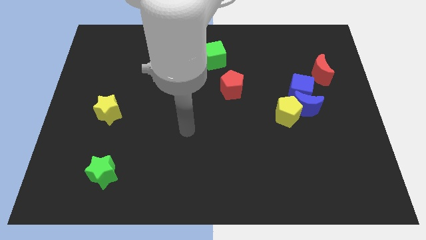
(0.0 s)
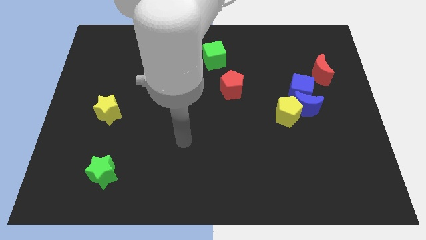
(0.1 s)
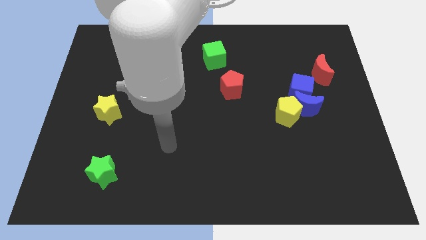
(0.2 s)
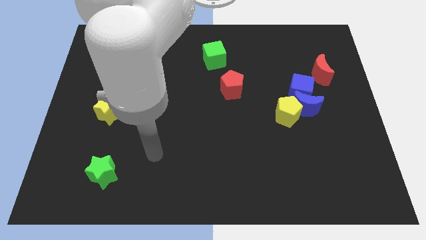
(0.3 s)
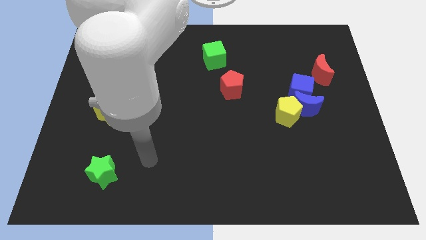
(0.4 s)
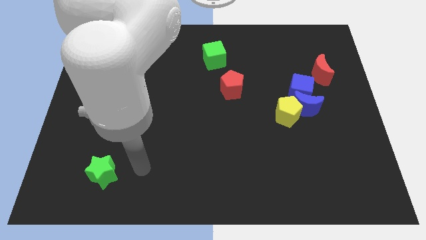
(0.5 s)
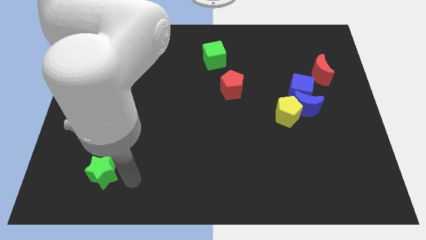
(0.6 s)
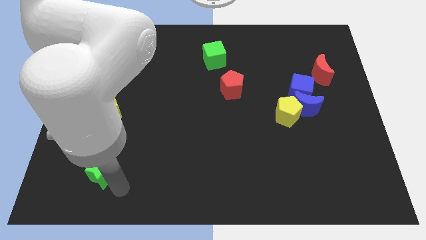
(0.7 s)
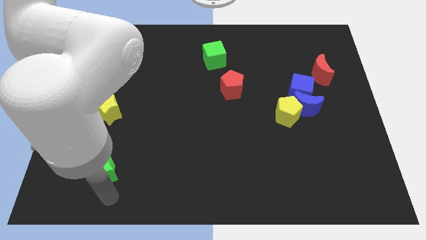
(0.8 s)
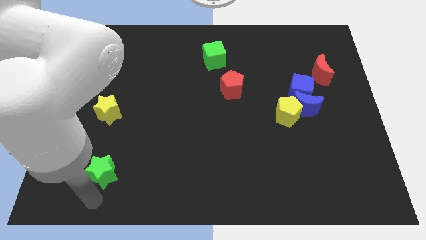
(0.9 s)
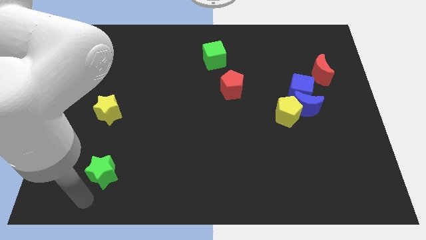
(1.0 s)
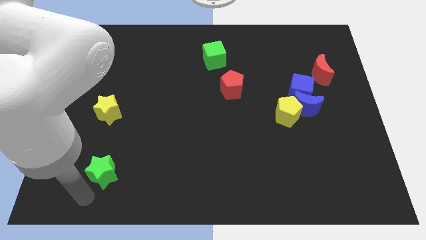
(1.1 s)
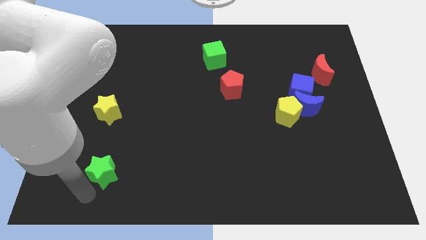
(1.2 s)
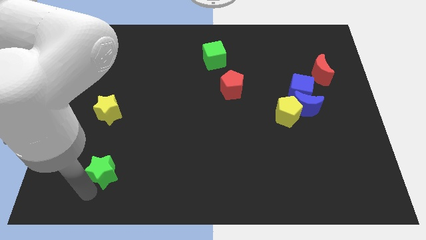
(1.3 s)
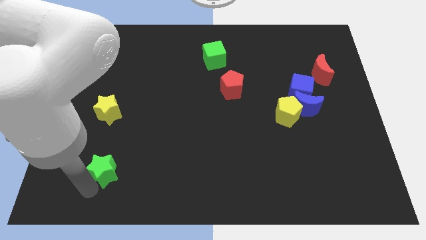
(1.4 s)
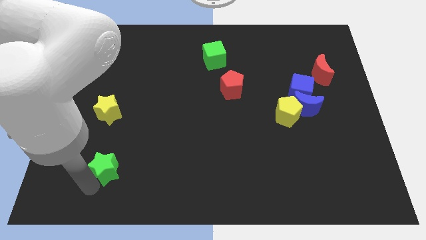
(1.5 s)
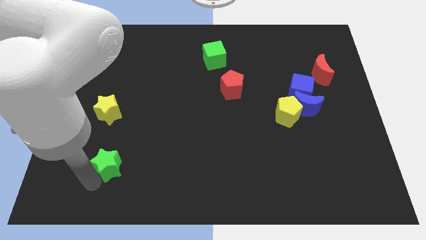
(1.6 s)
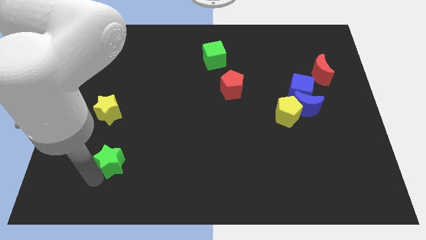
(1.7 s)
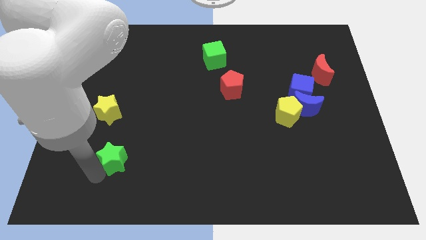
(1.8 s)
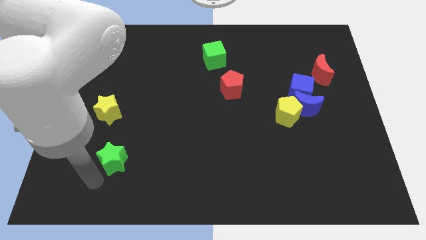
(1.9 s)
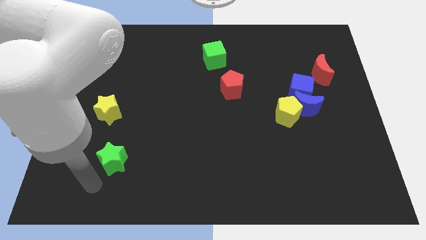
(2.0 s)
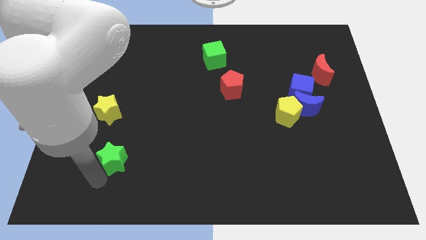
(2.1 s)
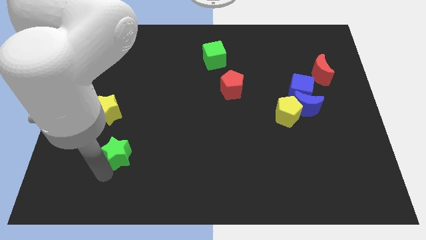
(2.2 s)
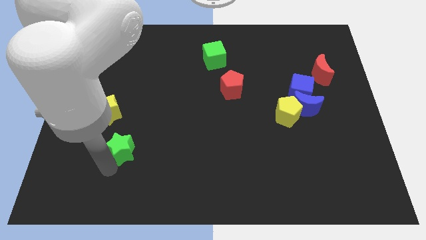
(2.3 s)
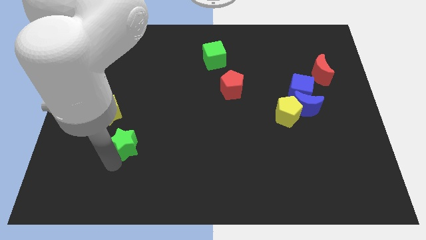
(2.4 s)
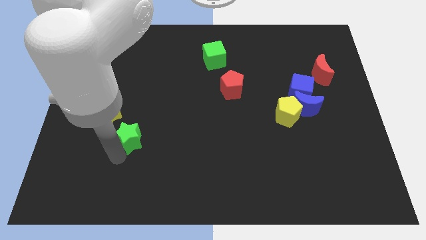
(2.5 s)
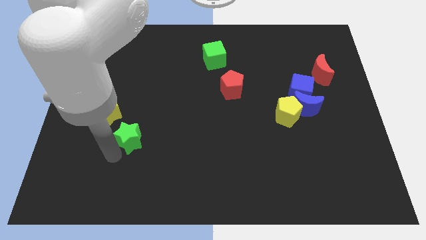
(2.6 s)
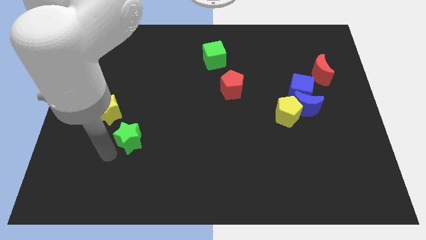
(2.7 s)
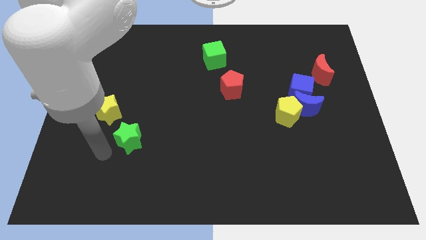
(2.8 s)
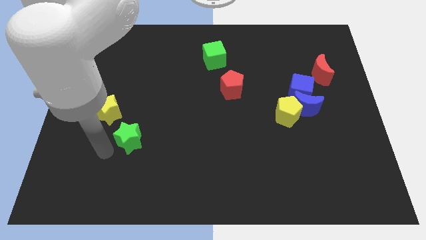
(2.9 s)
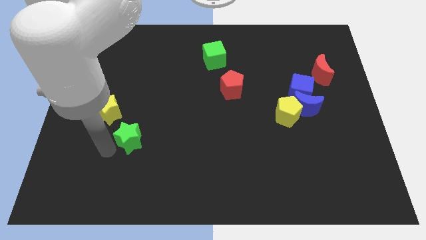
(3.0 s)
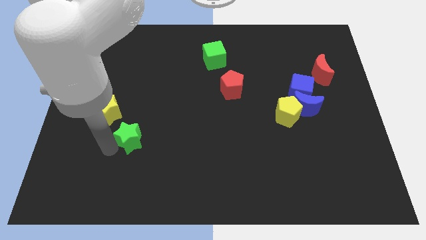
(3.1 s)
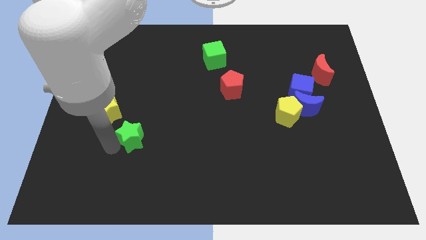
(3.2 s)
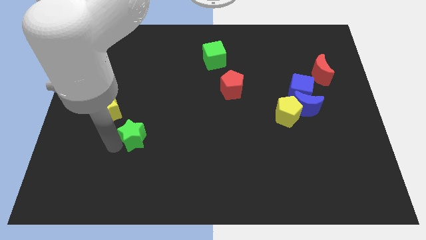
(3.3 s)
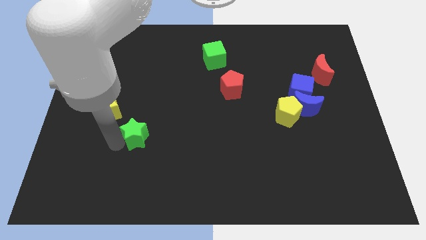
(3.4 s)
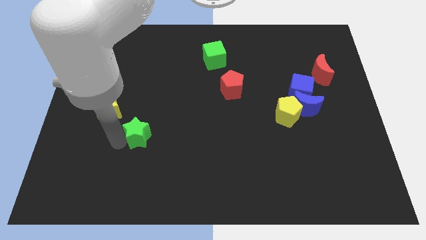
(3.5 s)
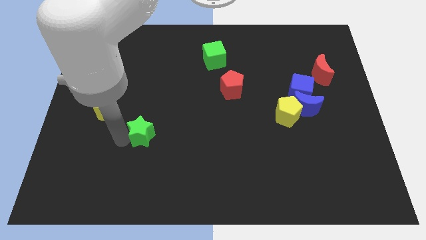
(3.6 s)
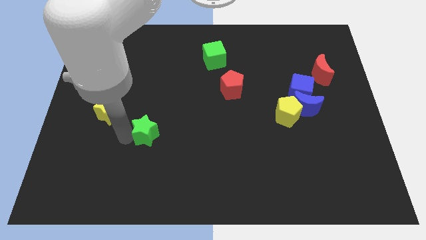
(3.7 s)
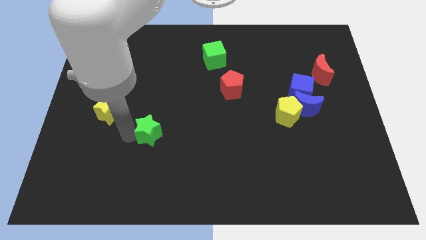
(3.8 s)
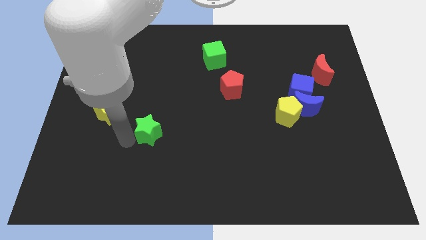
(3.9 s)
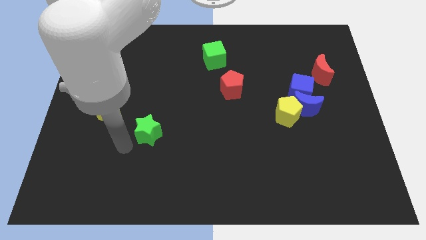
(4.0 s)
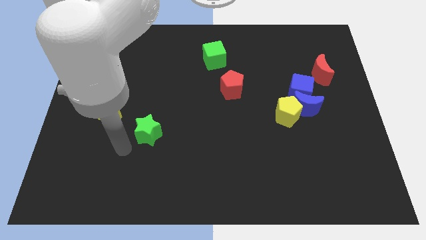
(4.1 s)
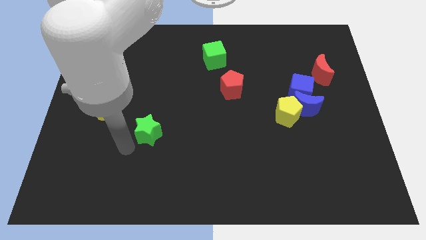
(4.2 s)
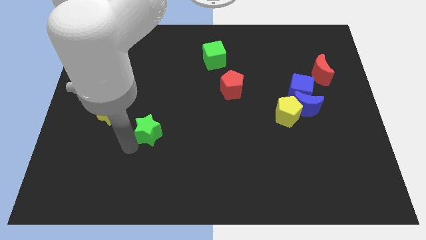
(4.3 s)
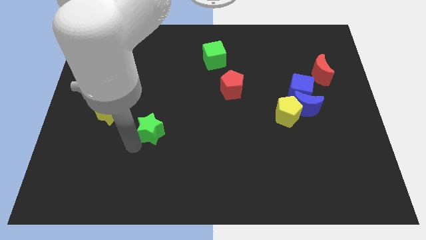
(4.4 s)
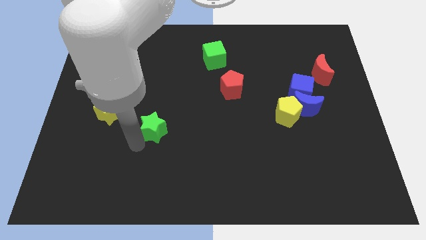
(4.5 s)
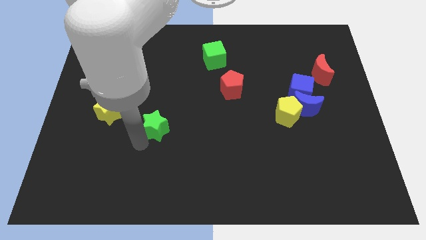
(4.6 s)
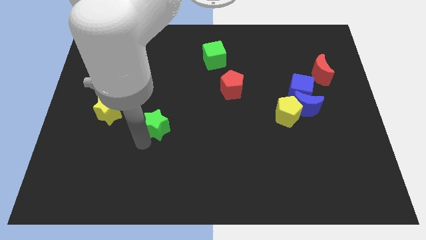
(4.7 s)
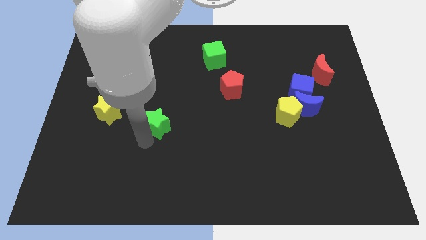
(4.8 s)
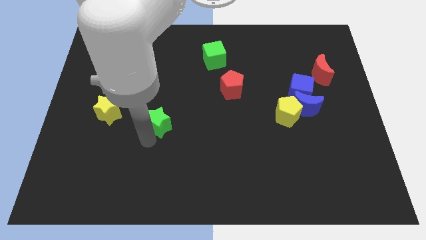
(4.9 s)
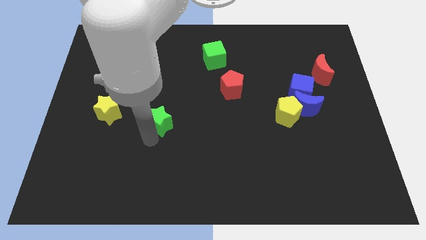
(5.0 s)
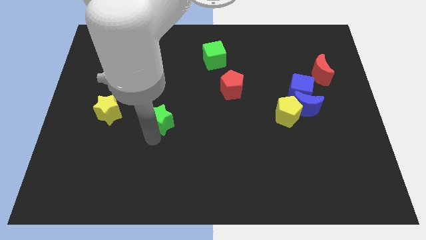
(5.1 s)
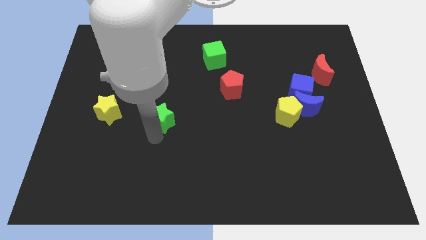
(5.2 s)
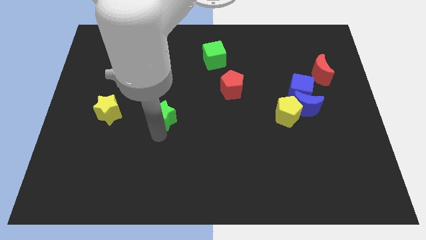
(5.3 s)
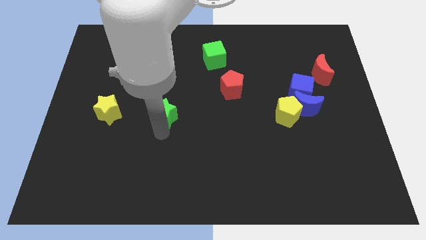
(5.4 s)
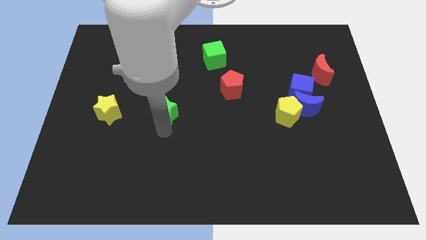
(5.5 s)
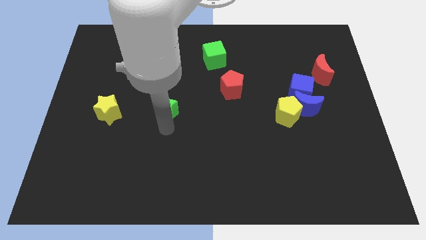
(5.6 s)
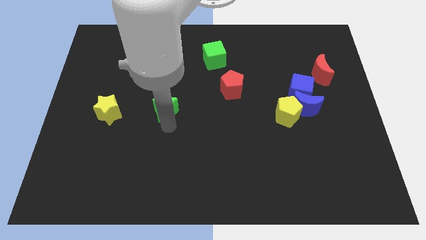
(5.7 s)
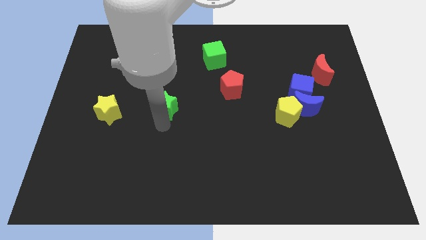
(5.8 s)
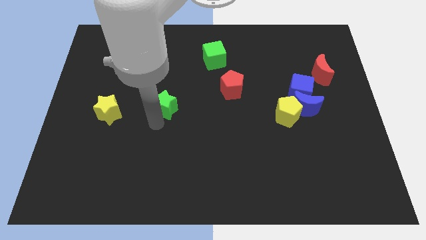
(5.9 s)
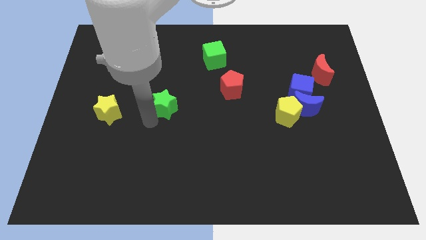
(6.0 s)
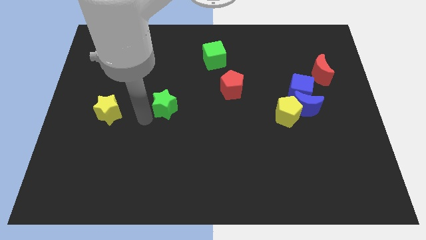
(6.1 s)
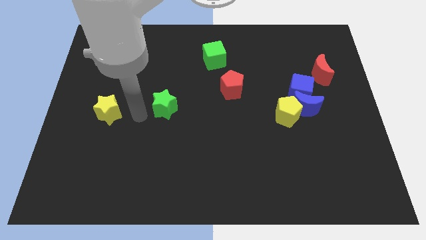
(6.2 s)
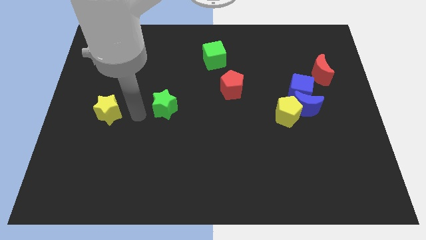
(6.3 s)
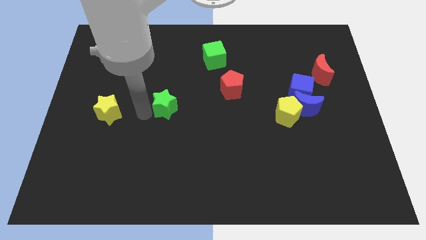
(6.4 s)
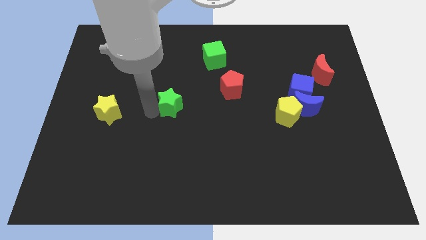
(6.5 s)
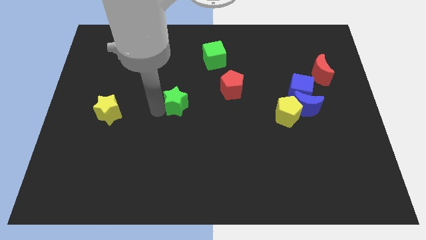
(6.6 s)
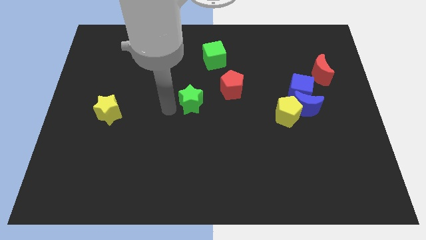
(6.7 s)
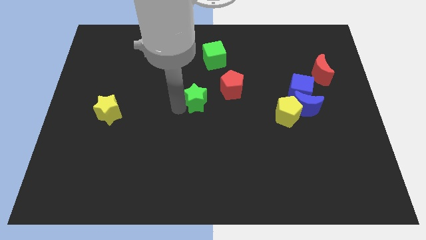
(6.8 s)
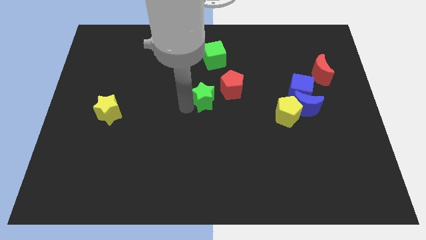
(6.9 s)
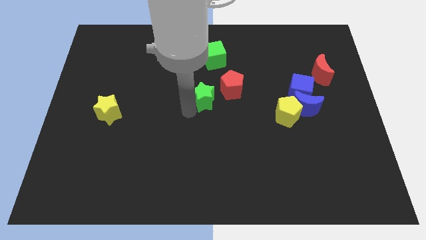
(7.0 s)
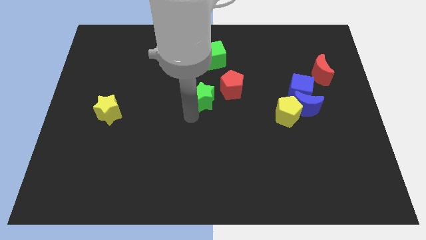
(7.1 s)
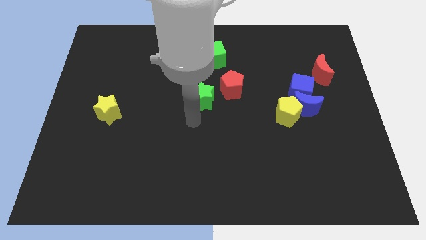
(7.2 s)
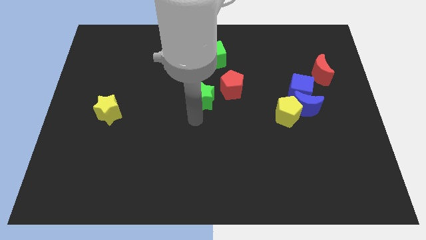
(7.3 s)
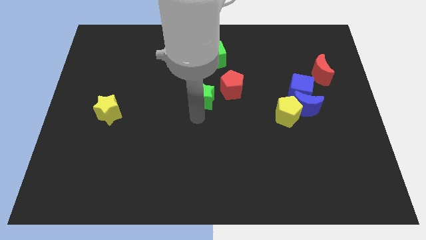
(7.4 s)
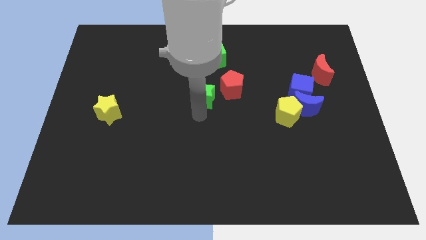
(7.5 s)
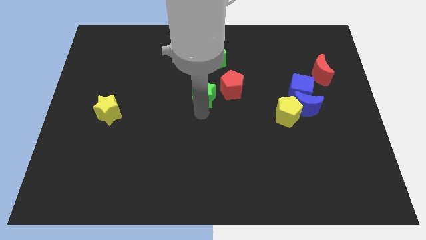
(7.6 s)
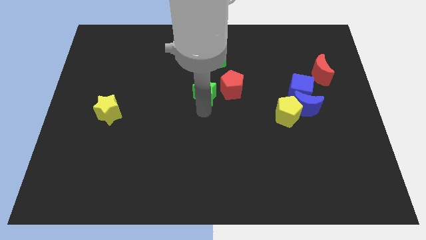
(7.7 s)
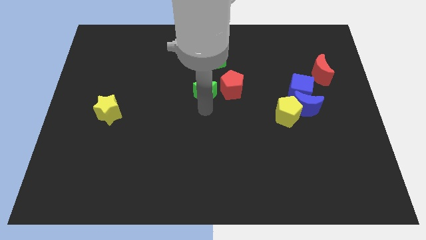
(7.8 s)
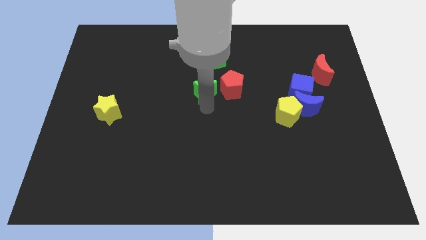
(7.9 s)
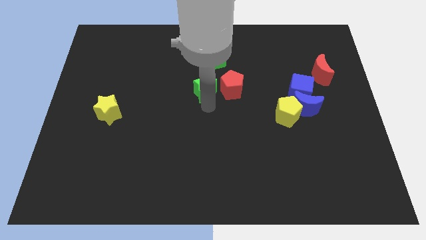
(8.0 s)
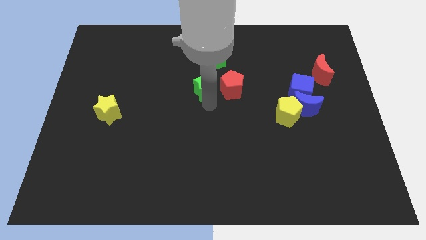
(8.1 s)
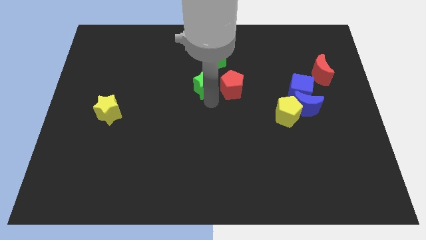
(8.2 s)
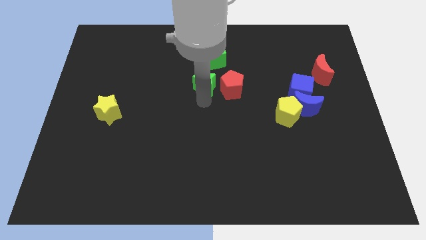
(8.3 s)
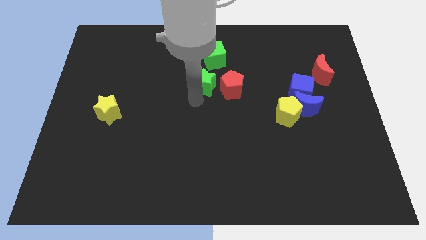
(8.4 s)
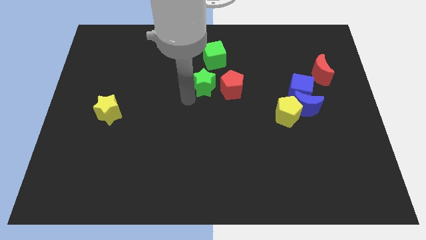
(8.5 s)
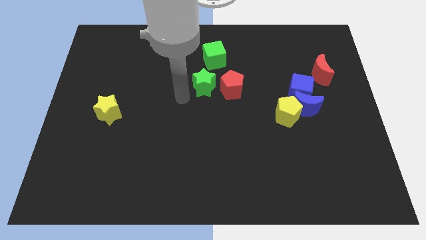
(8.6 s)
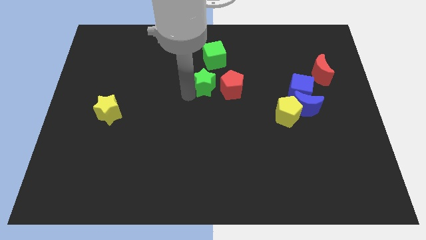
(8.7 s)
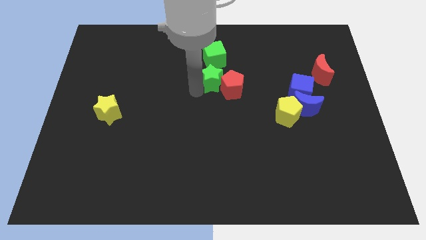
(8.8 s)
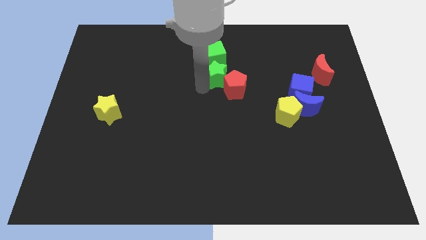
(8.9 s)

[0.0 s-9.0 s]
put the green star to the bottom right side of the green cube
